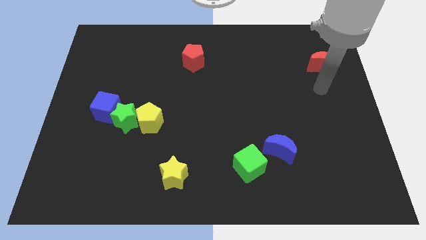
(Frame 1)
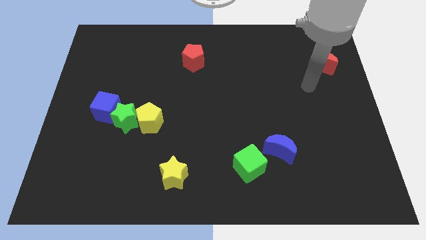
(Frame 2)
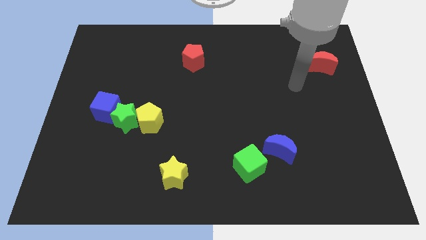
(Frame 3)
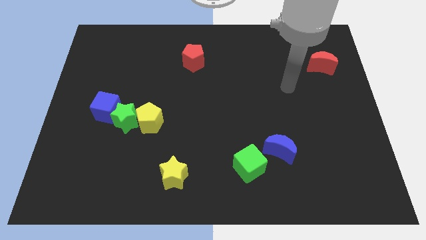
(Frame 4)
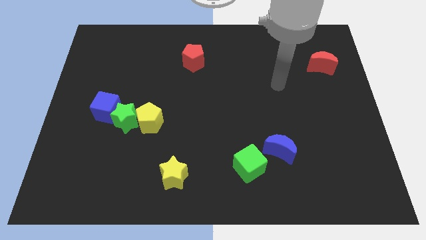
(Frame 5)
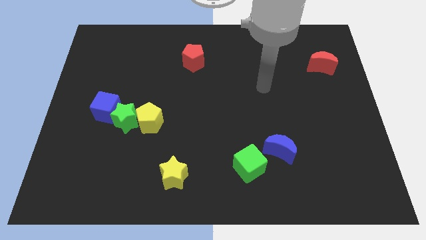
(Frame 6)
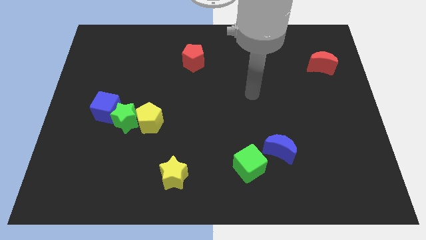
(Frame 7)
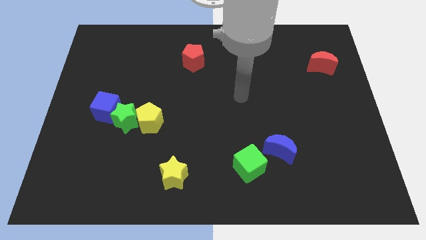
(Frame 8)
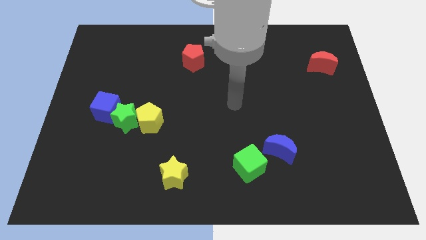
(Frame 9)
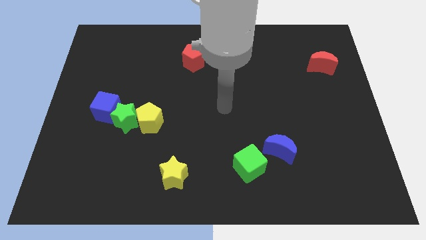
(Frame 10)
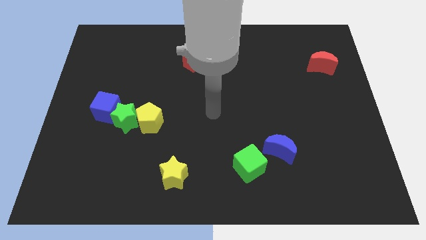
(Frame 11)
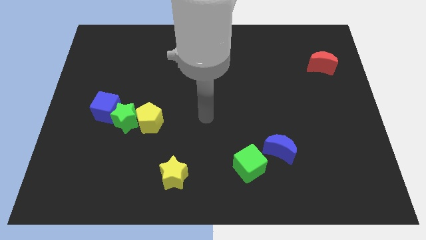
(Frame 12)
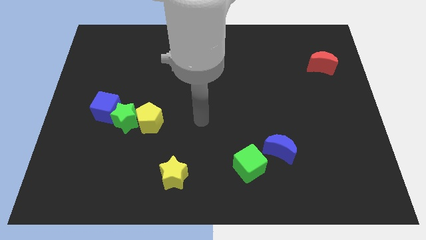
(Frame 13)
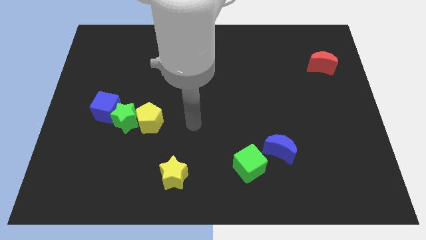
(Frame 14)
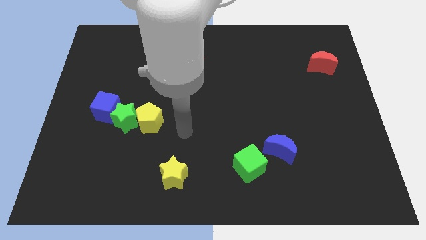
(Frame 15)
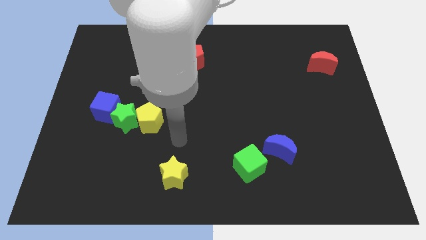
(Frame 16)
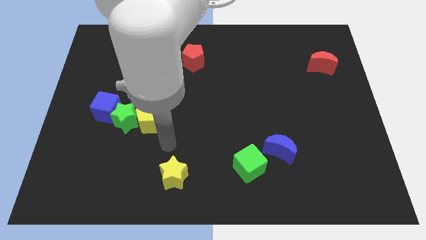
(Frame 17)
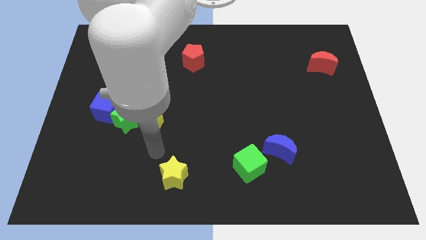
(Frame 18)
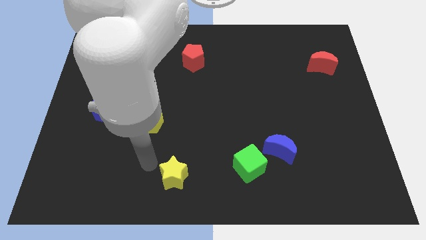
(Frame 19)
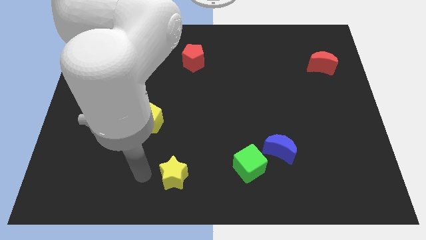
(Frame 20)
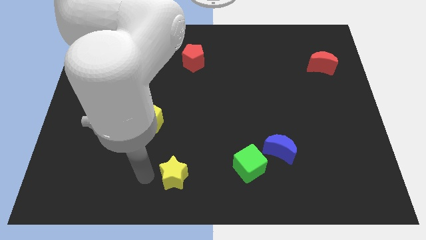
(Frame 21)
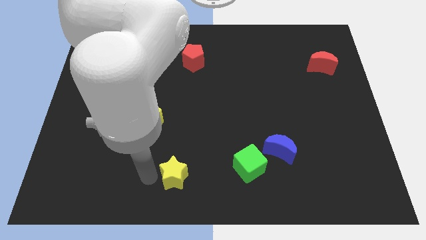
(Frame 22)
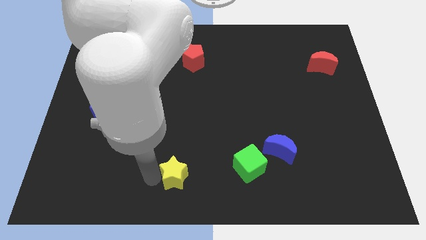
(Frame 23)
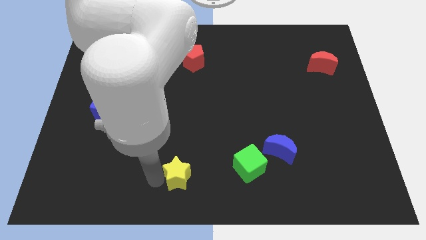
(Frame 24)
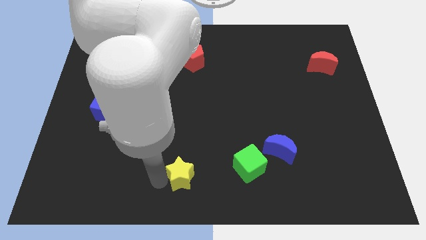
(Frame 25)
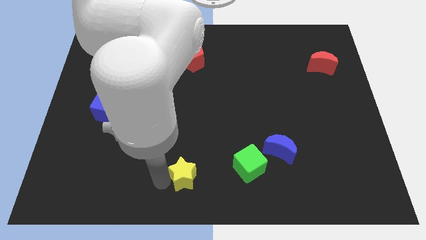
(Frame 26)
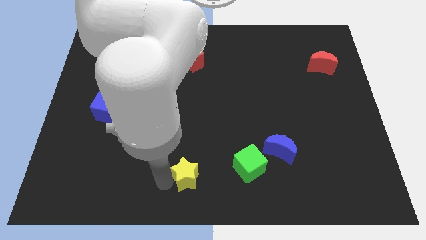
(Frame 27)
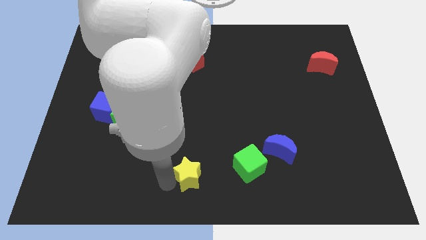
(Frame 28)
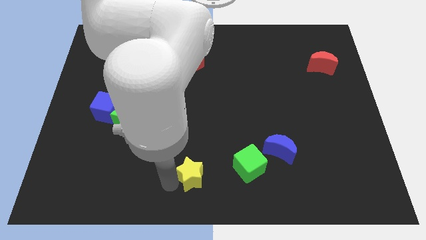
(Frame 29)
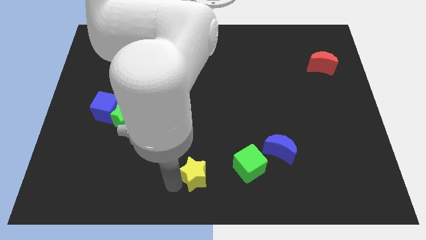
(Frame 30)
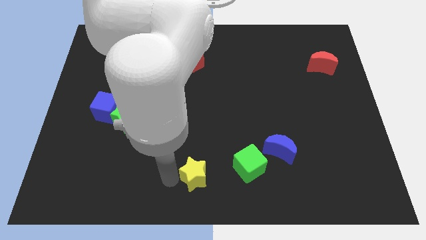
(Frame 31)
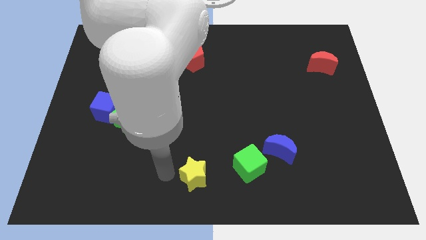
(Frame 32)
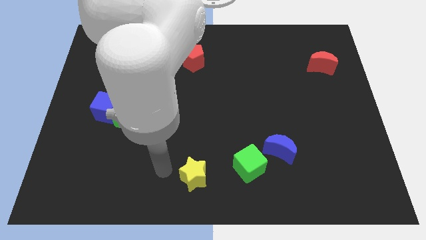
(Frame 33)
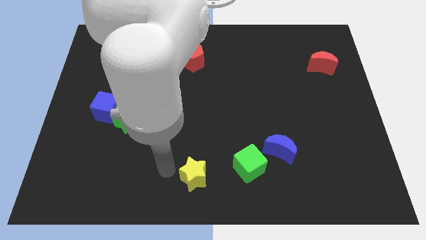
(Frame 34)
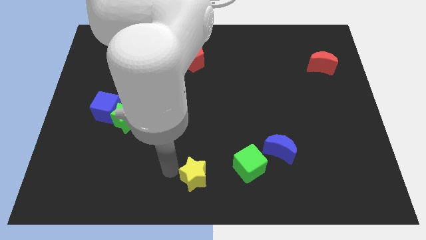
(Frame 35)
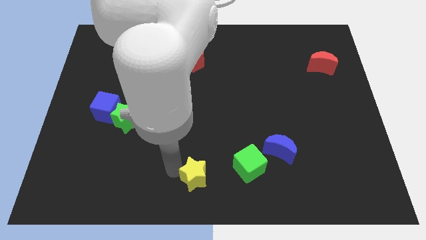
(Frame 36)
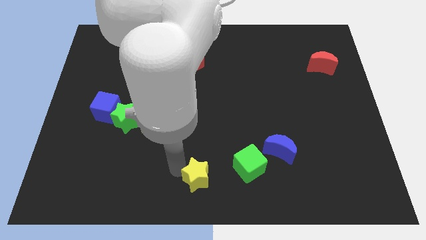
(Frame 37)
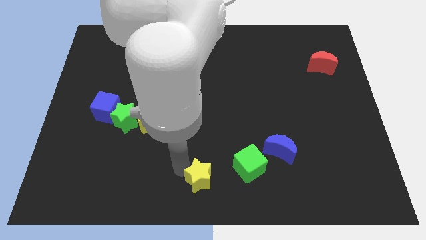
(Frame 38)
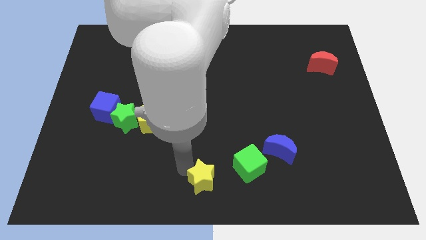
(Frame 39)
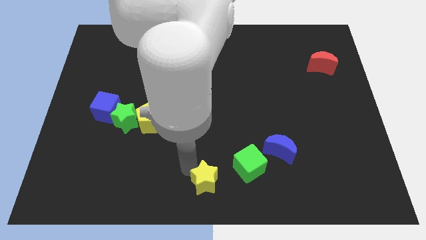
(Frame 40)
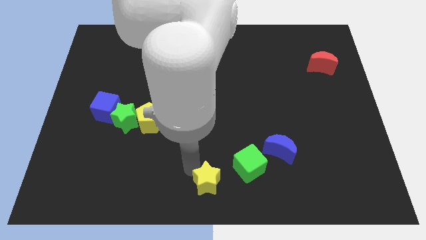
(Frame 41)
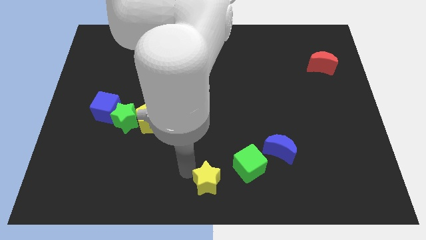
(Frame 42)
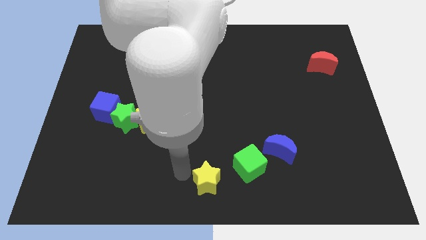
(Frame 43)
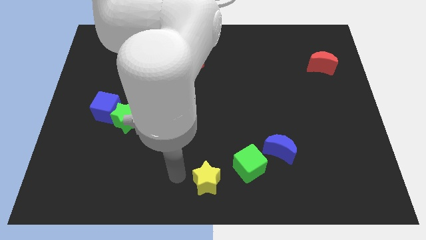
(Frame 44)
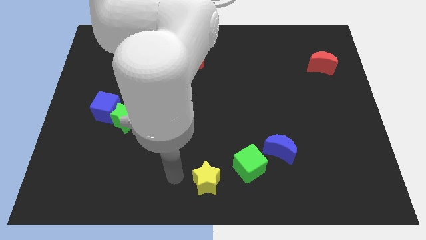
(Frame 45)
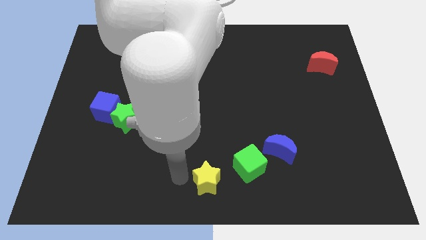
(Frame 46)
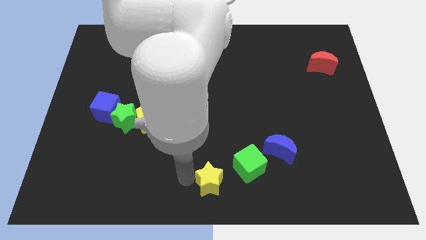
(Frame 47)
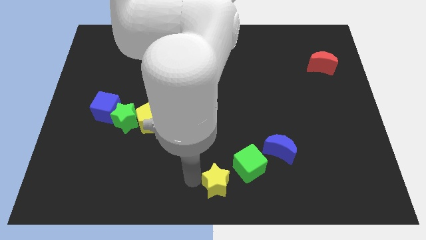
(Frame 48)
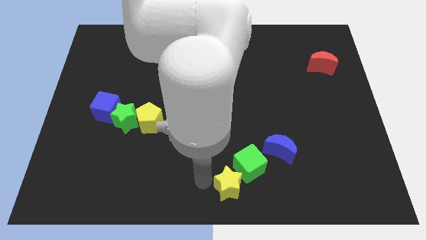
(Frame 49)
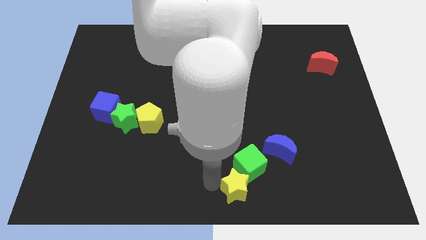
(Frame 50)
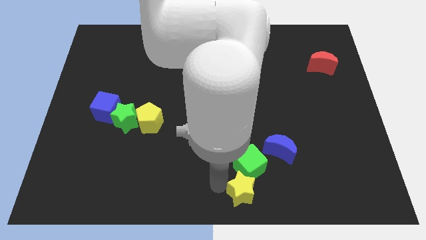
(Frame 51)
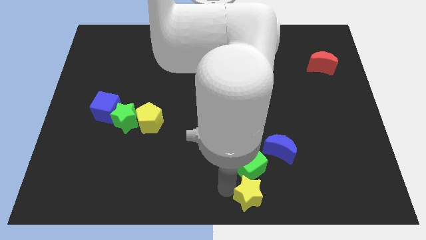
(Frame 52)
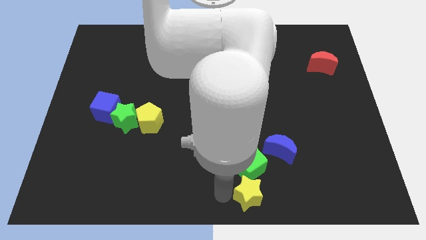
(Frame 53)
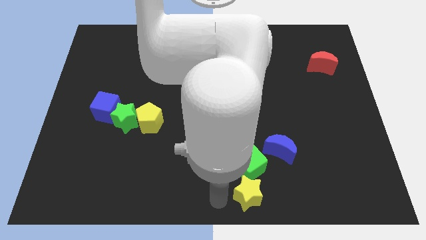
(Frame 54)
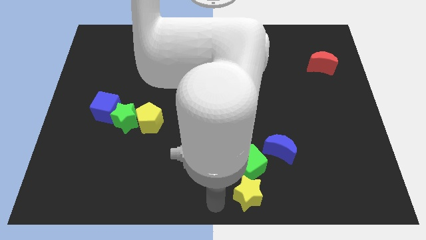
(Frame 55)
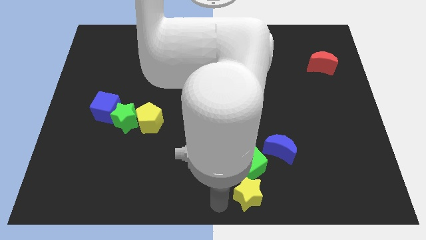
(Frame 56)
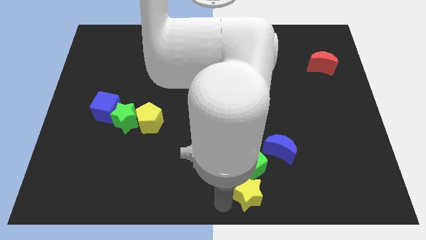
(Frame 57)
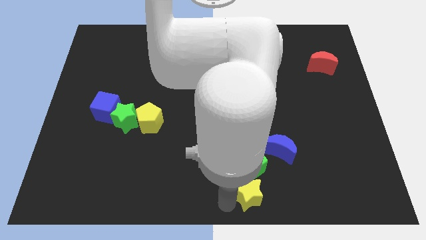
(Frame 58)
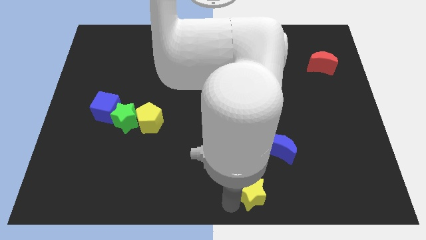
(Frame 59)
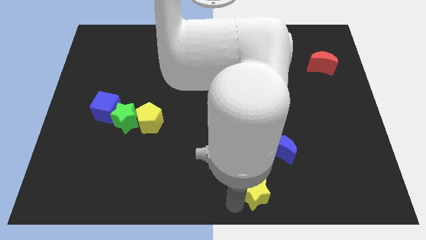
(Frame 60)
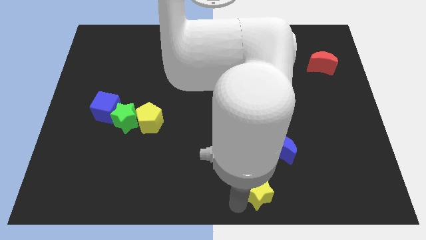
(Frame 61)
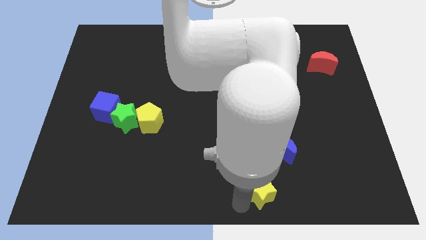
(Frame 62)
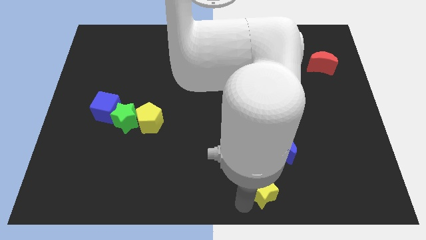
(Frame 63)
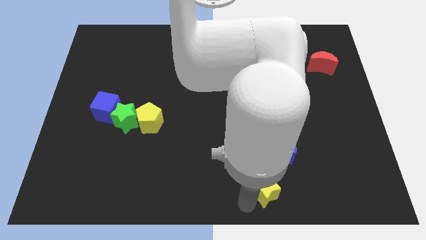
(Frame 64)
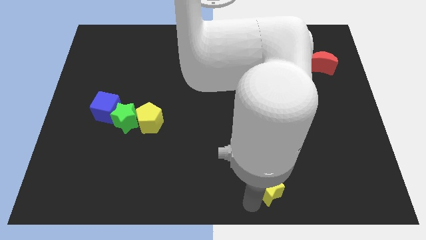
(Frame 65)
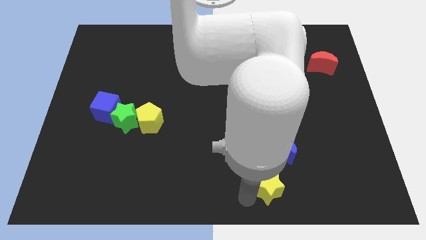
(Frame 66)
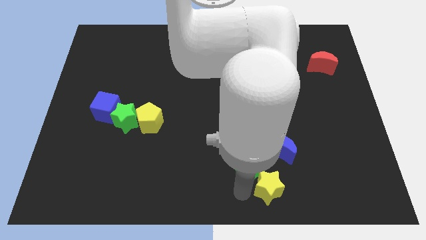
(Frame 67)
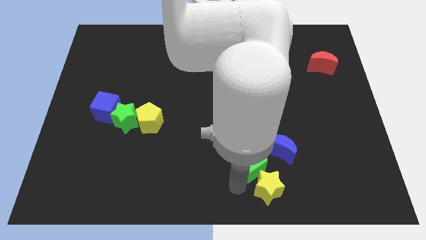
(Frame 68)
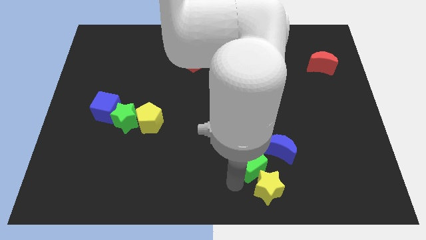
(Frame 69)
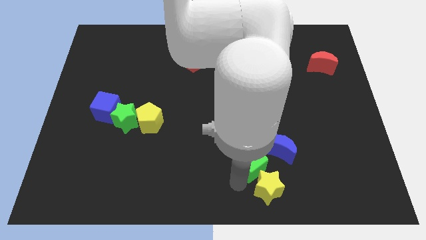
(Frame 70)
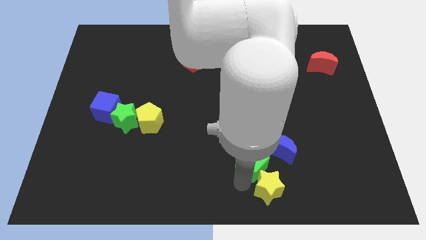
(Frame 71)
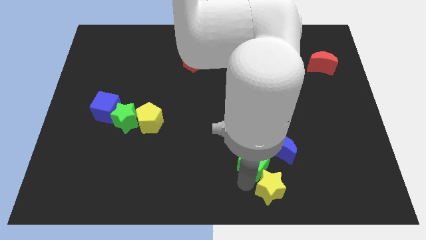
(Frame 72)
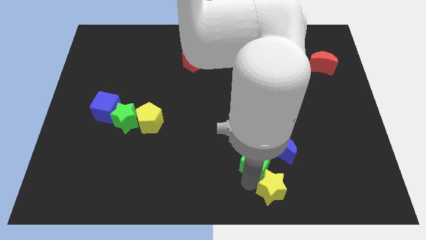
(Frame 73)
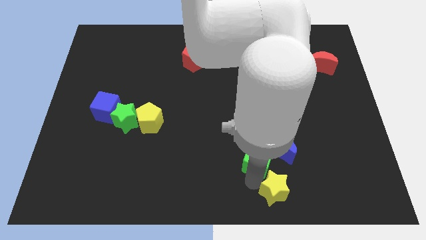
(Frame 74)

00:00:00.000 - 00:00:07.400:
move the yellow star right

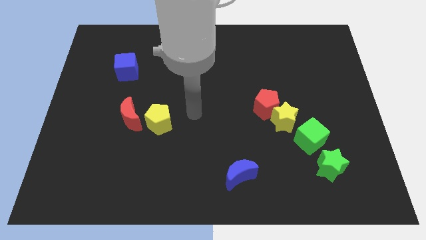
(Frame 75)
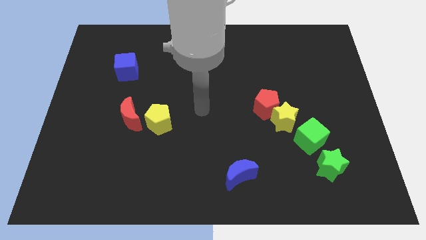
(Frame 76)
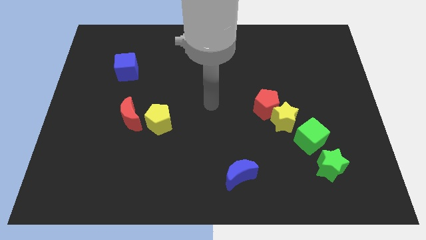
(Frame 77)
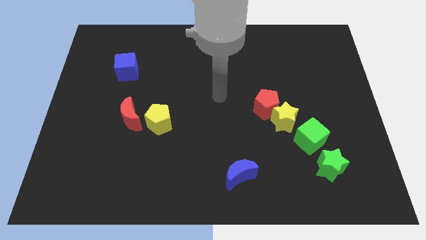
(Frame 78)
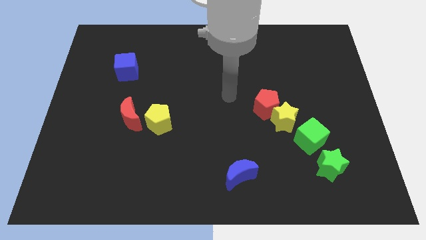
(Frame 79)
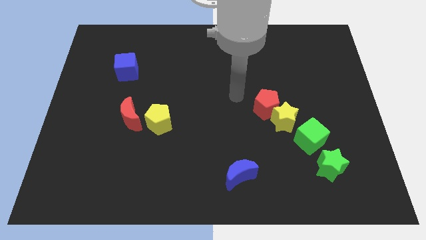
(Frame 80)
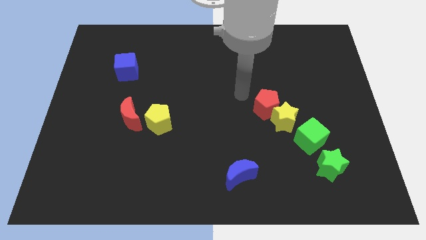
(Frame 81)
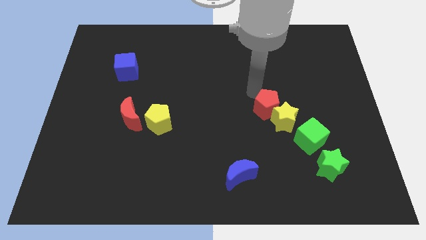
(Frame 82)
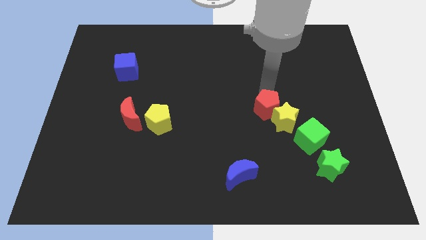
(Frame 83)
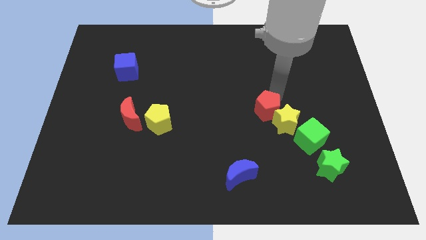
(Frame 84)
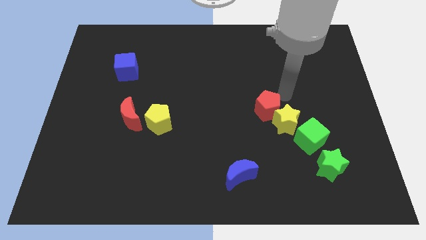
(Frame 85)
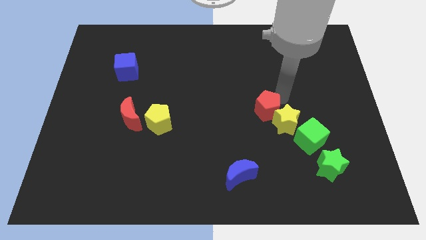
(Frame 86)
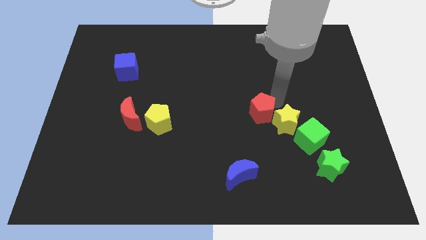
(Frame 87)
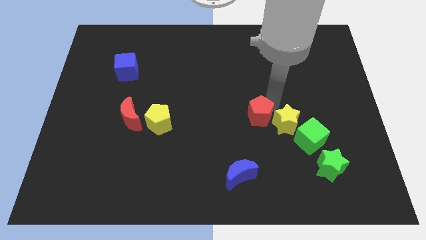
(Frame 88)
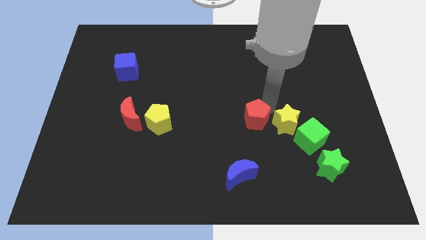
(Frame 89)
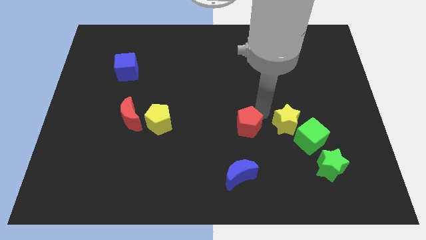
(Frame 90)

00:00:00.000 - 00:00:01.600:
move the red pentagon down and left diagonally a little bit
